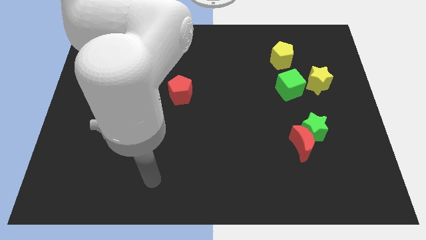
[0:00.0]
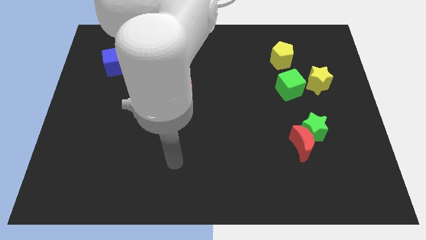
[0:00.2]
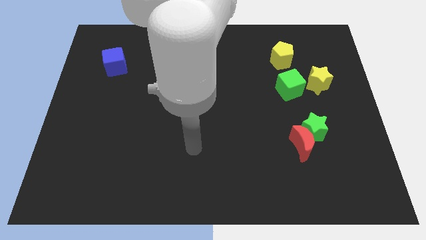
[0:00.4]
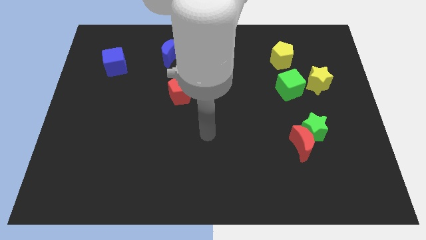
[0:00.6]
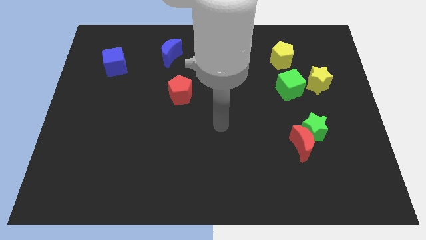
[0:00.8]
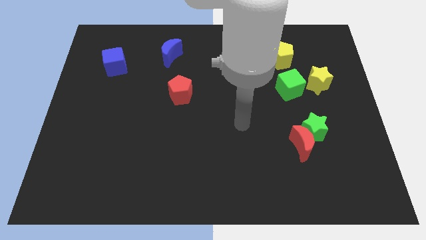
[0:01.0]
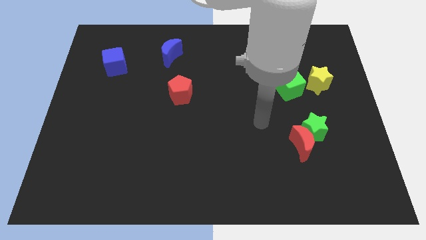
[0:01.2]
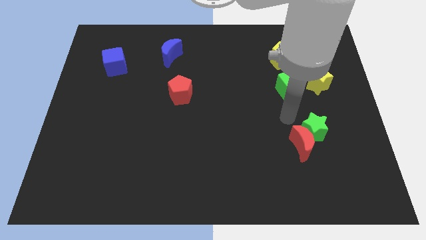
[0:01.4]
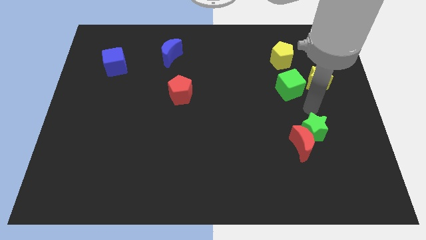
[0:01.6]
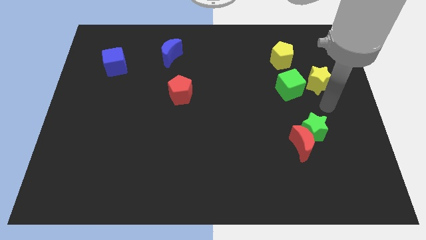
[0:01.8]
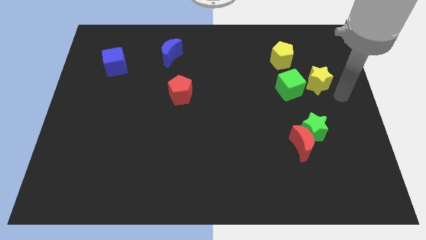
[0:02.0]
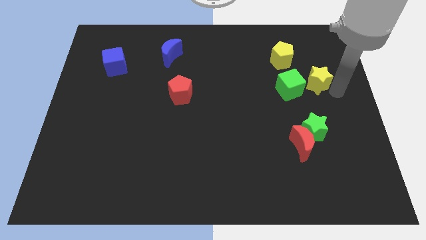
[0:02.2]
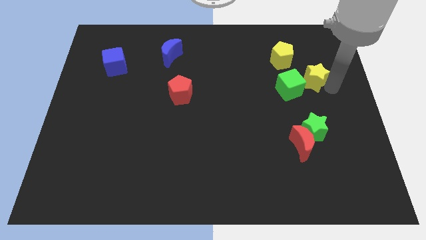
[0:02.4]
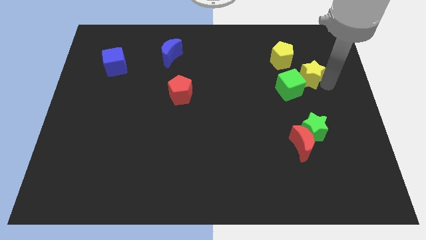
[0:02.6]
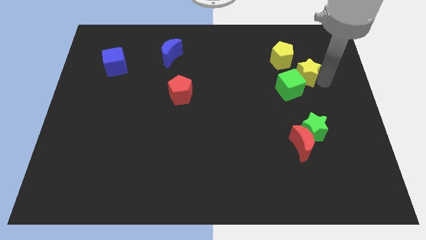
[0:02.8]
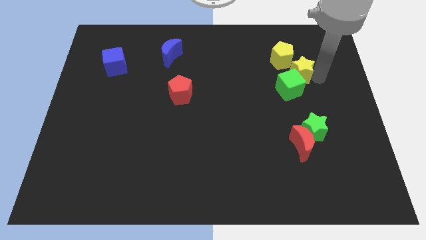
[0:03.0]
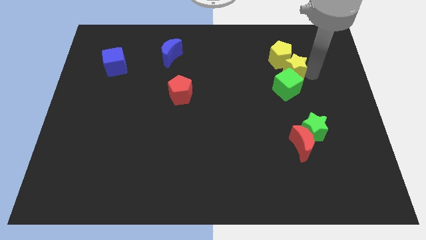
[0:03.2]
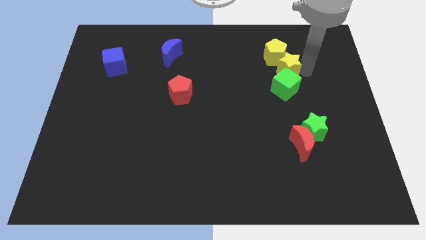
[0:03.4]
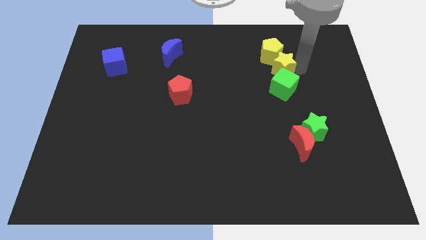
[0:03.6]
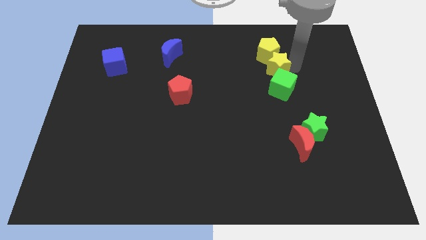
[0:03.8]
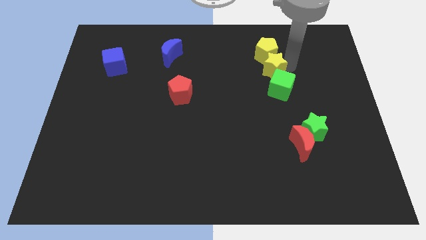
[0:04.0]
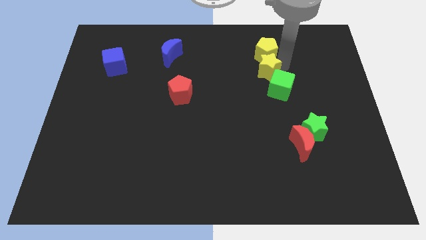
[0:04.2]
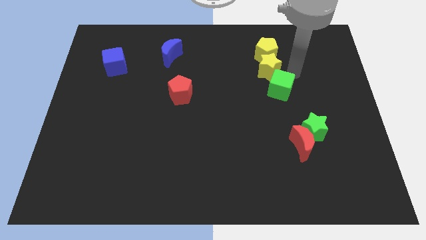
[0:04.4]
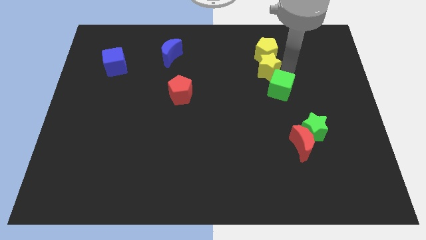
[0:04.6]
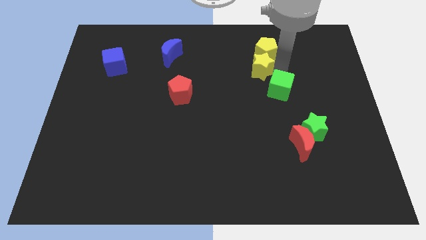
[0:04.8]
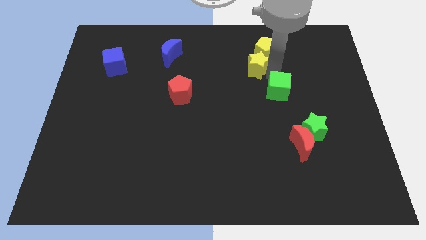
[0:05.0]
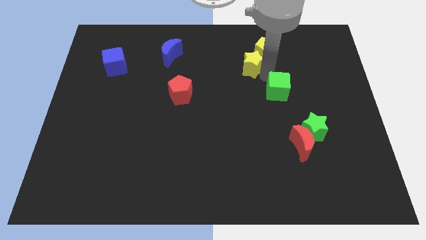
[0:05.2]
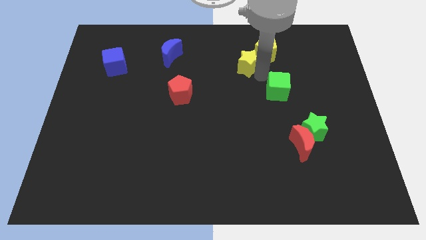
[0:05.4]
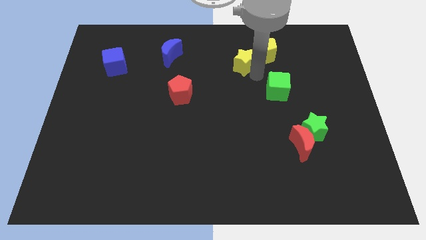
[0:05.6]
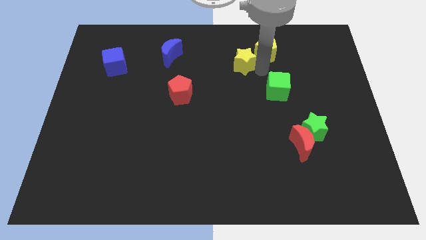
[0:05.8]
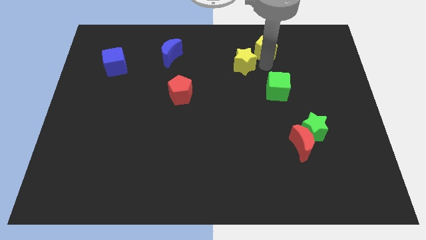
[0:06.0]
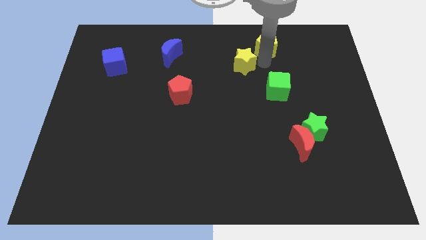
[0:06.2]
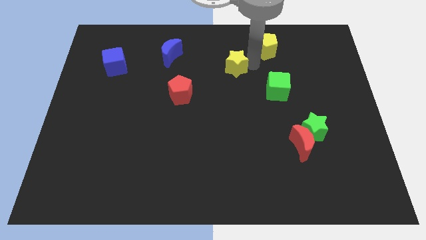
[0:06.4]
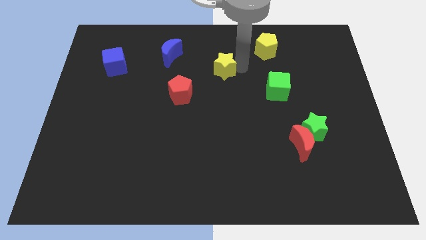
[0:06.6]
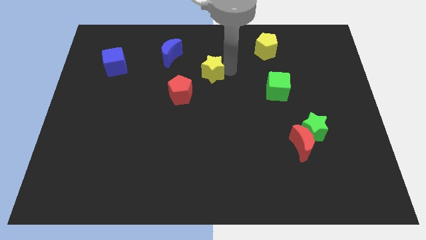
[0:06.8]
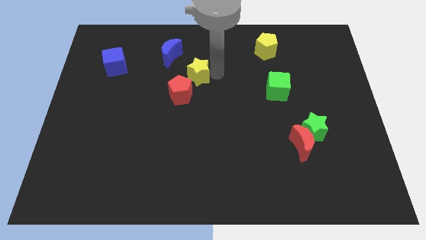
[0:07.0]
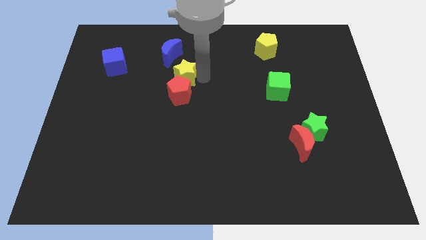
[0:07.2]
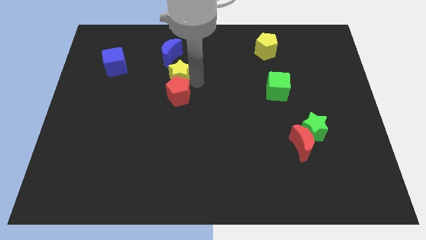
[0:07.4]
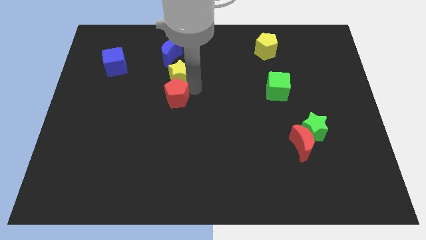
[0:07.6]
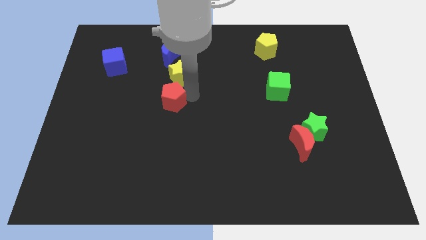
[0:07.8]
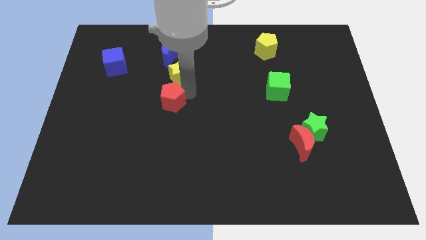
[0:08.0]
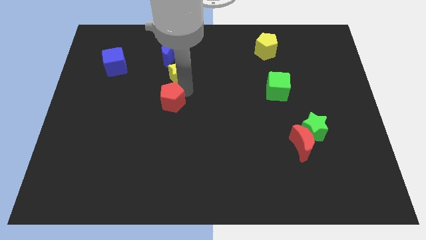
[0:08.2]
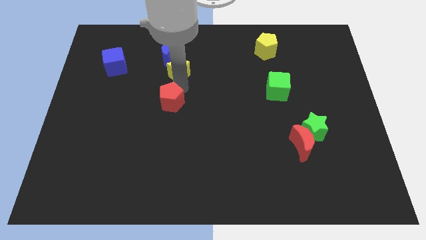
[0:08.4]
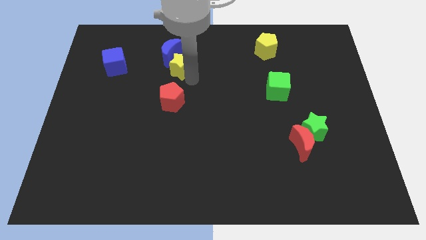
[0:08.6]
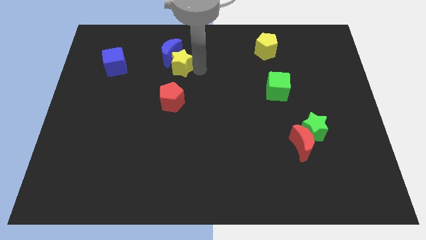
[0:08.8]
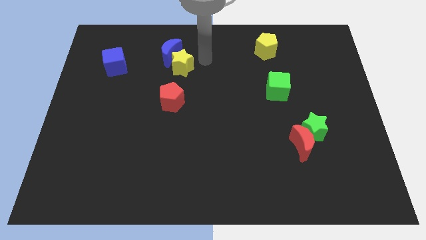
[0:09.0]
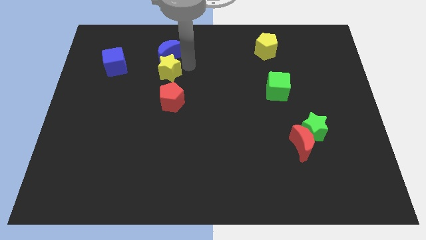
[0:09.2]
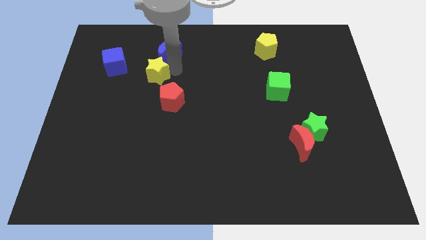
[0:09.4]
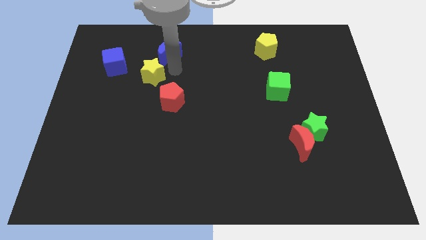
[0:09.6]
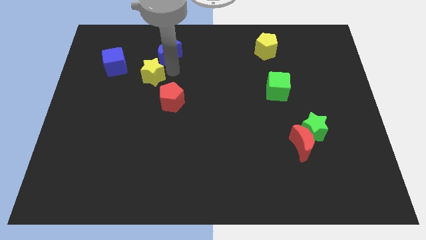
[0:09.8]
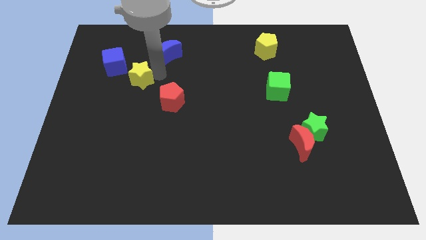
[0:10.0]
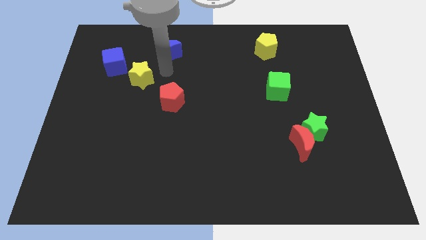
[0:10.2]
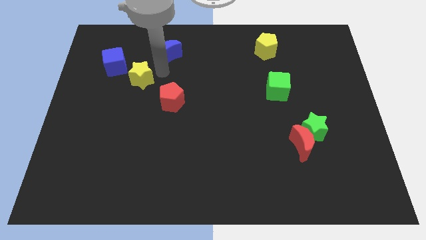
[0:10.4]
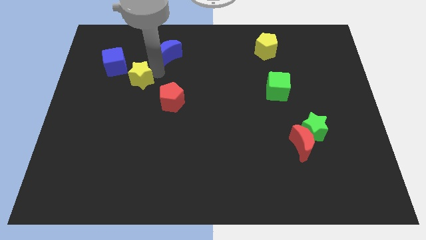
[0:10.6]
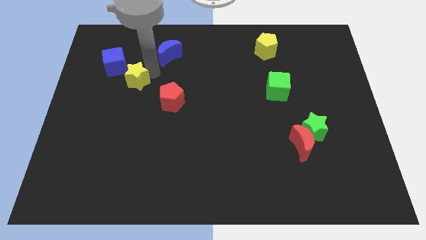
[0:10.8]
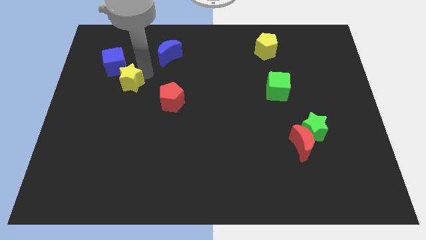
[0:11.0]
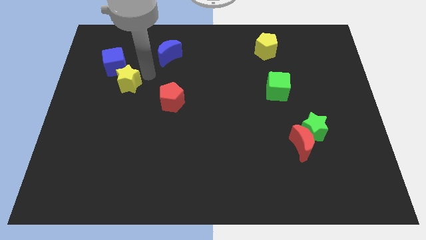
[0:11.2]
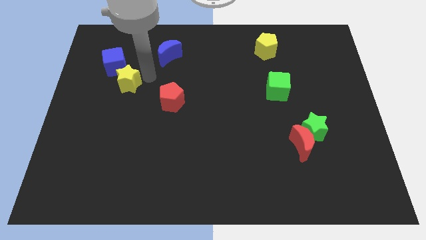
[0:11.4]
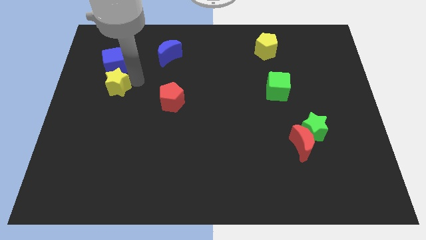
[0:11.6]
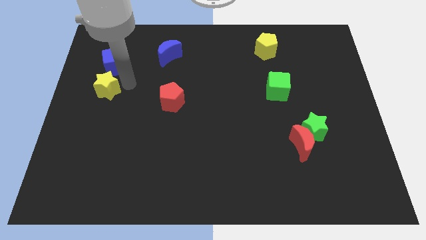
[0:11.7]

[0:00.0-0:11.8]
slide the yellow star to the left side
